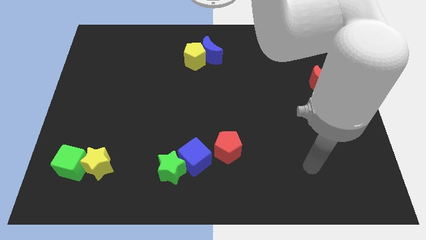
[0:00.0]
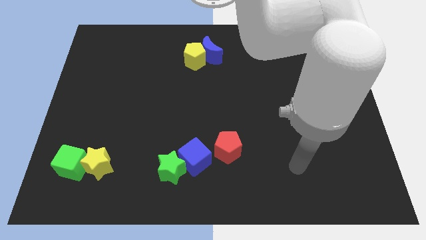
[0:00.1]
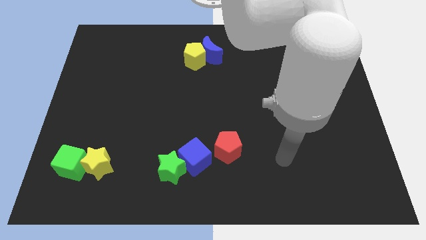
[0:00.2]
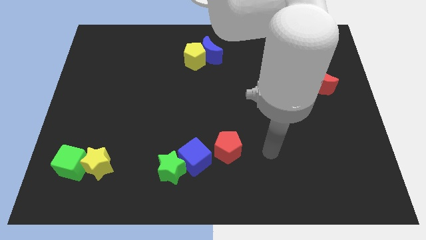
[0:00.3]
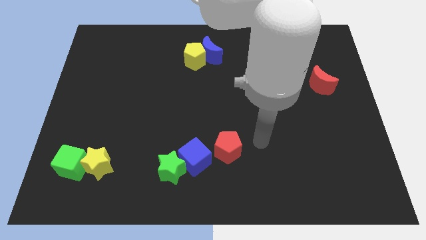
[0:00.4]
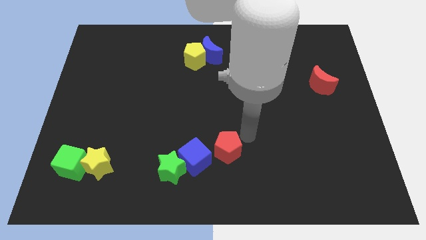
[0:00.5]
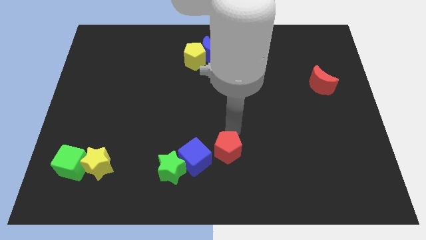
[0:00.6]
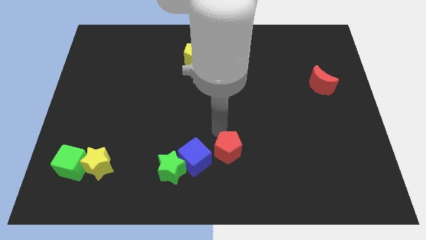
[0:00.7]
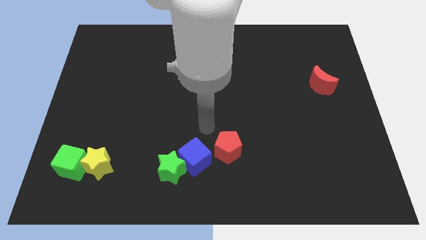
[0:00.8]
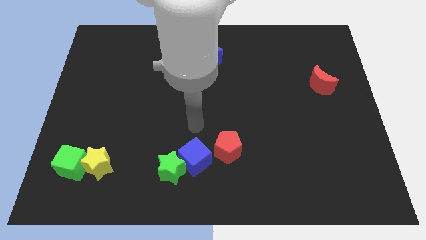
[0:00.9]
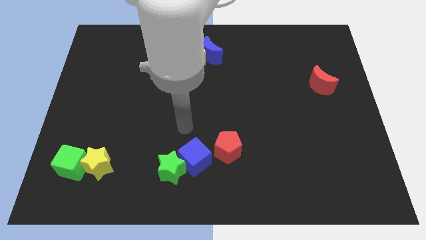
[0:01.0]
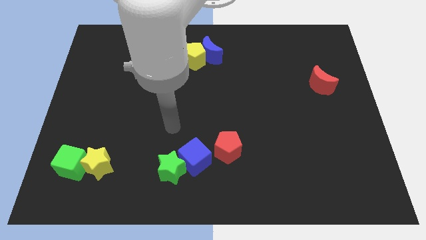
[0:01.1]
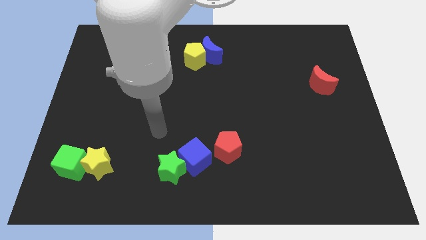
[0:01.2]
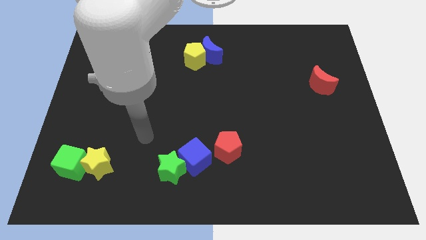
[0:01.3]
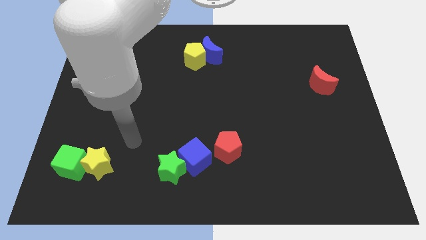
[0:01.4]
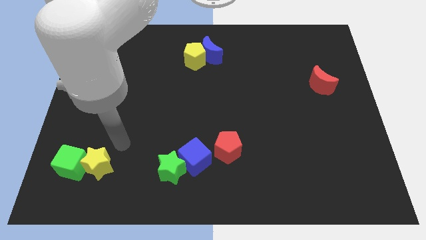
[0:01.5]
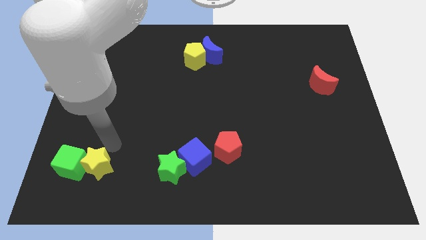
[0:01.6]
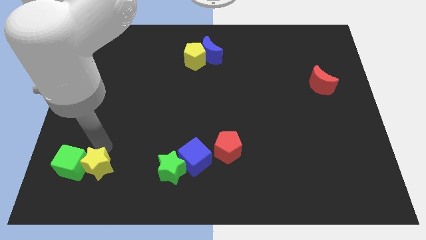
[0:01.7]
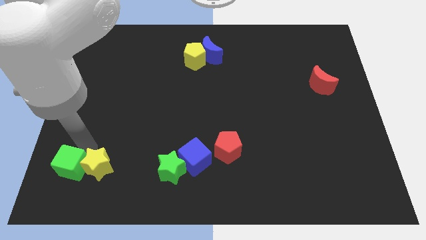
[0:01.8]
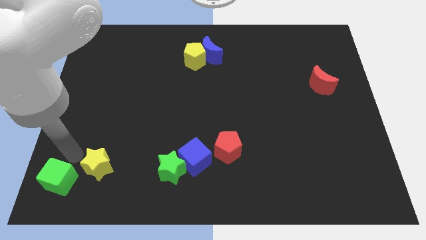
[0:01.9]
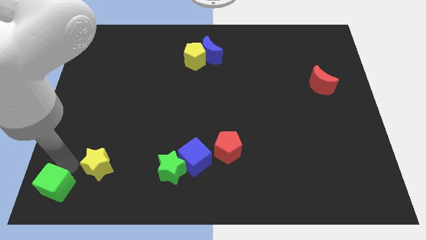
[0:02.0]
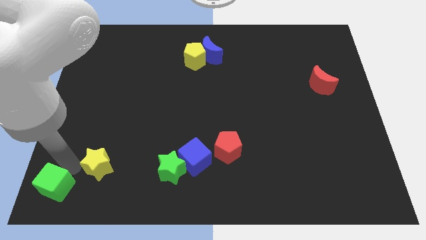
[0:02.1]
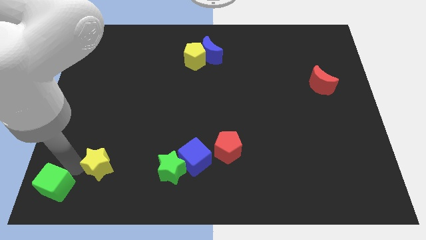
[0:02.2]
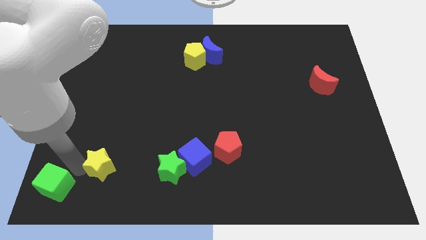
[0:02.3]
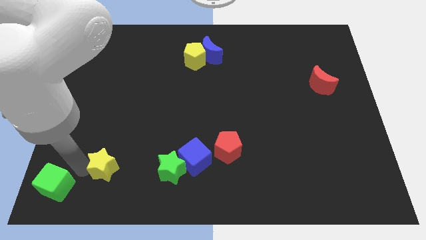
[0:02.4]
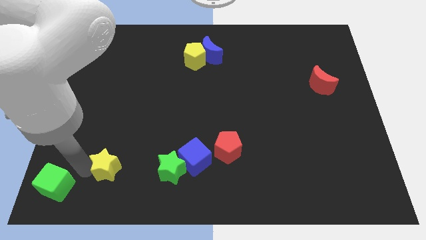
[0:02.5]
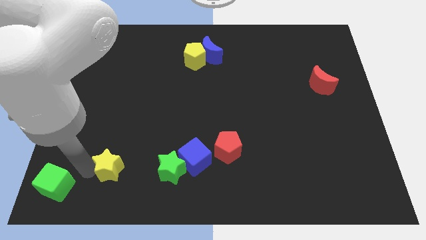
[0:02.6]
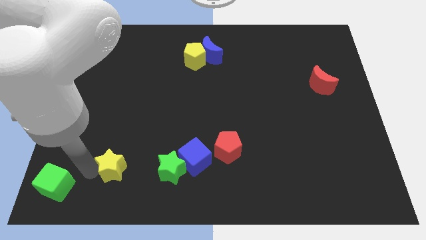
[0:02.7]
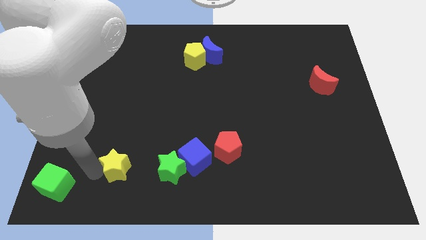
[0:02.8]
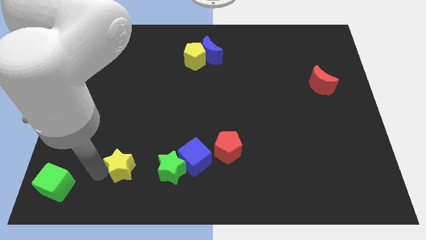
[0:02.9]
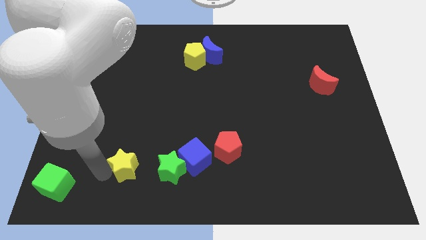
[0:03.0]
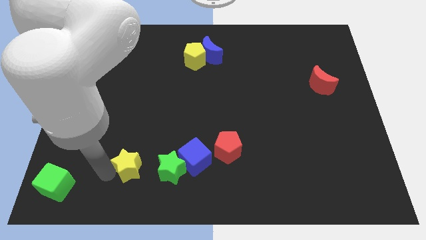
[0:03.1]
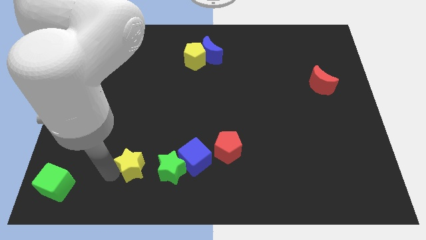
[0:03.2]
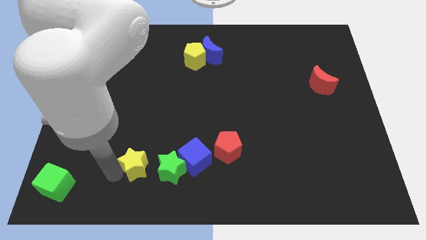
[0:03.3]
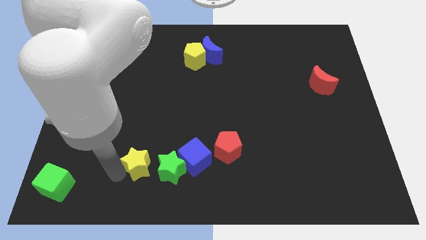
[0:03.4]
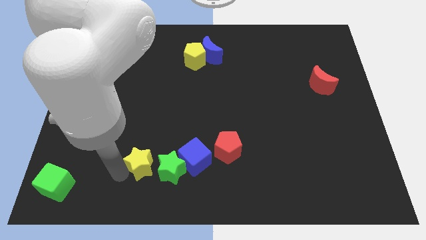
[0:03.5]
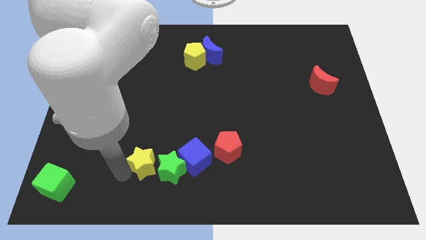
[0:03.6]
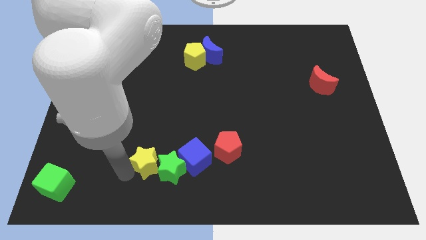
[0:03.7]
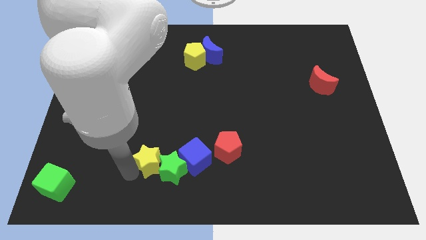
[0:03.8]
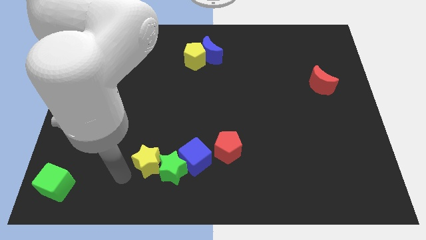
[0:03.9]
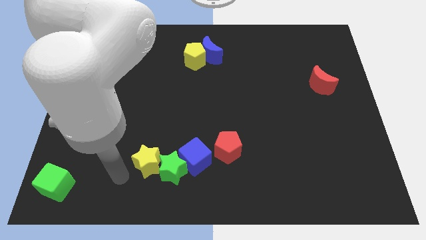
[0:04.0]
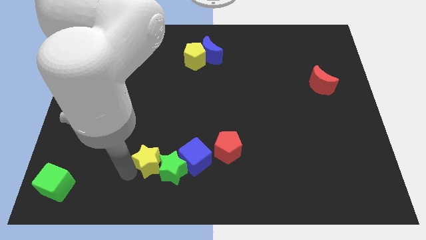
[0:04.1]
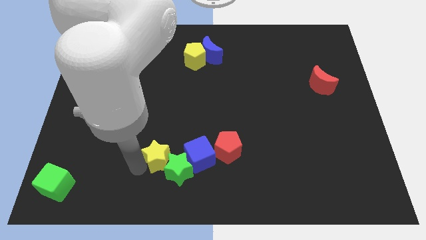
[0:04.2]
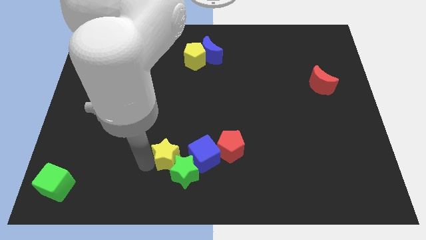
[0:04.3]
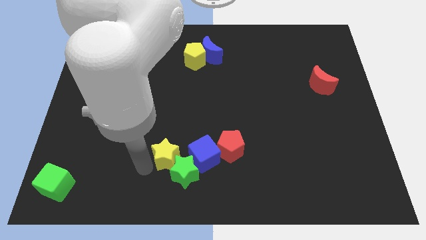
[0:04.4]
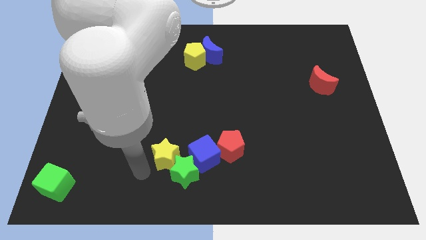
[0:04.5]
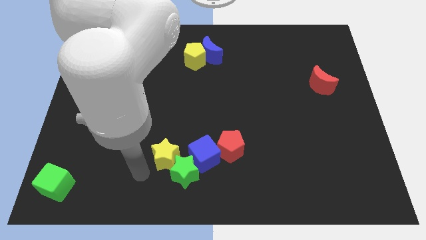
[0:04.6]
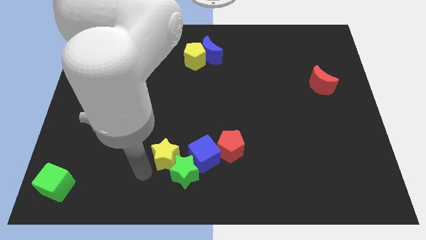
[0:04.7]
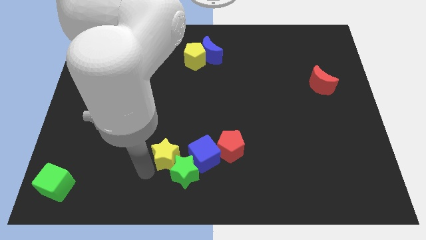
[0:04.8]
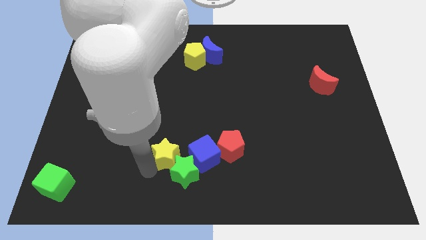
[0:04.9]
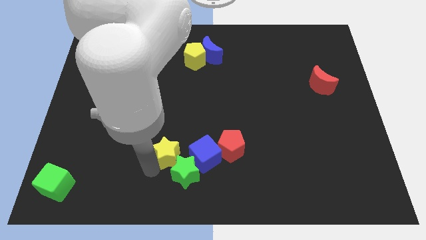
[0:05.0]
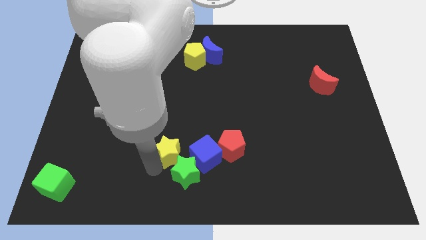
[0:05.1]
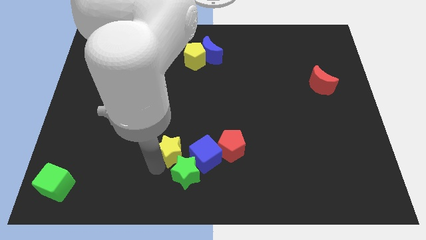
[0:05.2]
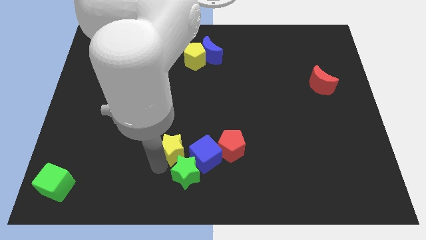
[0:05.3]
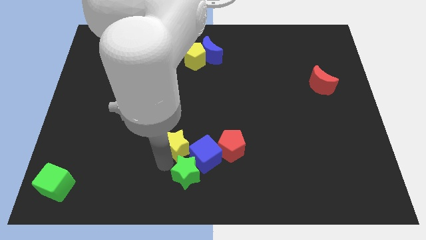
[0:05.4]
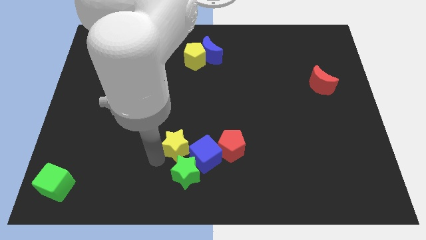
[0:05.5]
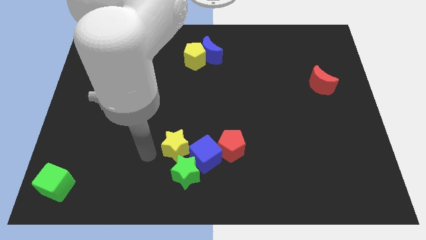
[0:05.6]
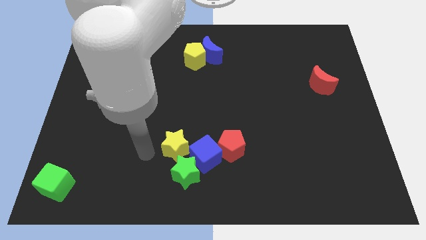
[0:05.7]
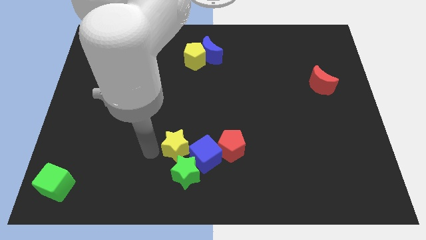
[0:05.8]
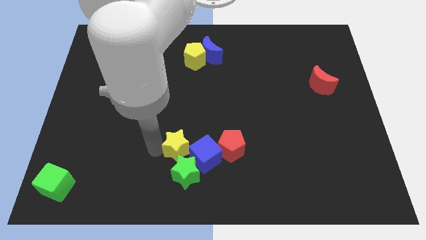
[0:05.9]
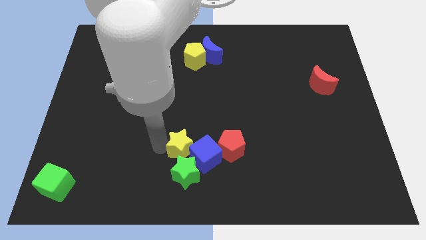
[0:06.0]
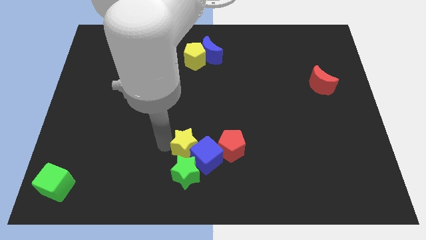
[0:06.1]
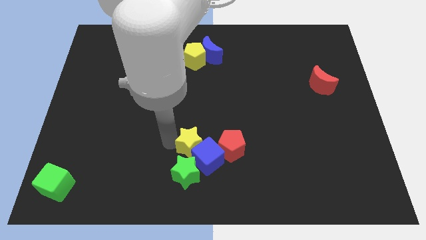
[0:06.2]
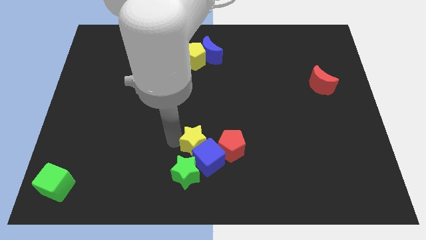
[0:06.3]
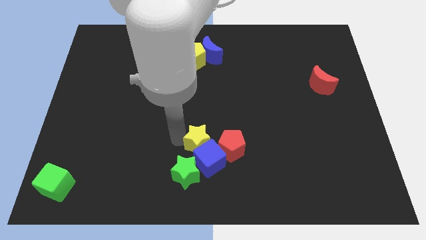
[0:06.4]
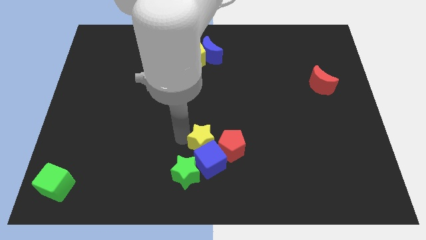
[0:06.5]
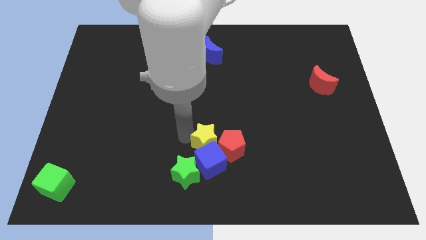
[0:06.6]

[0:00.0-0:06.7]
move the yellow star to the top right side of the blue cube
